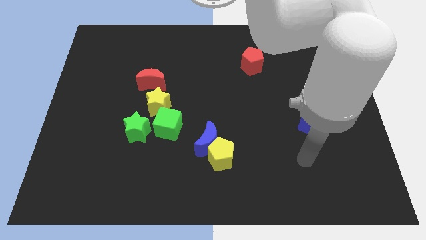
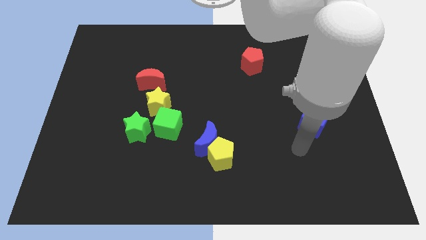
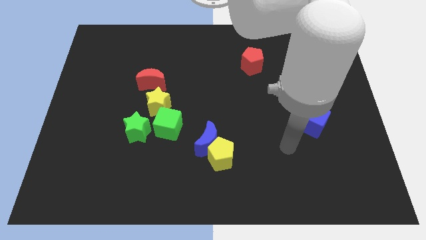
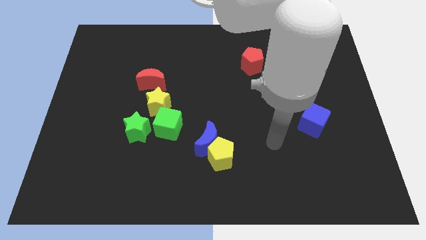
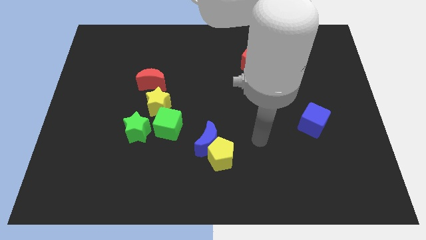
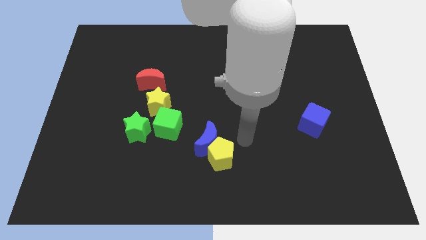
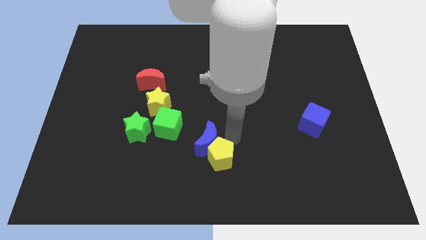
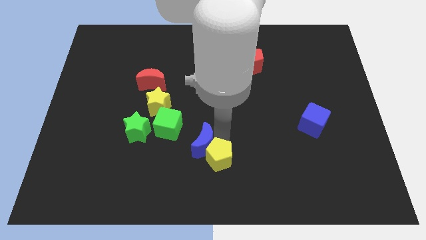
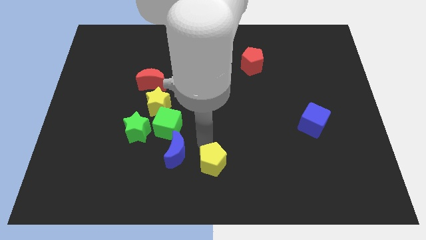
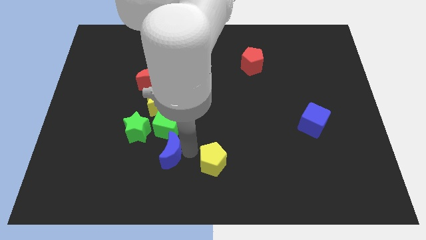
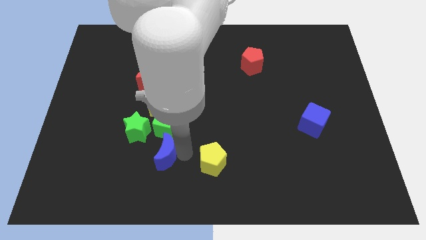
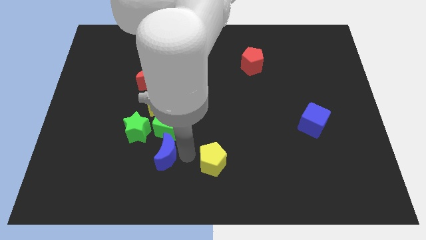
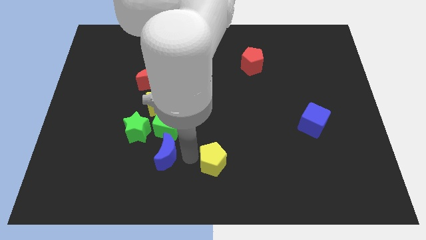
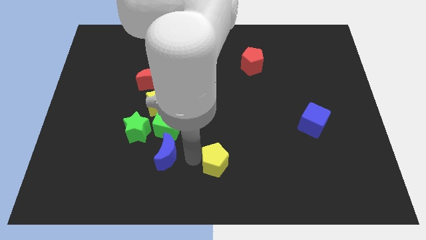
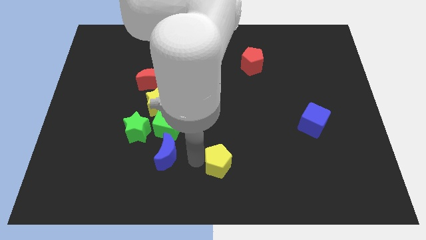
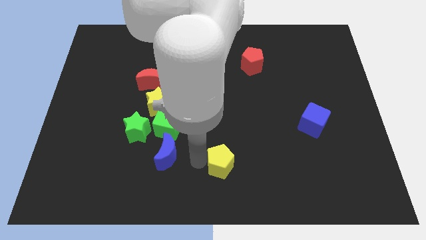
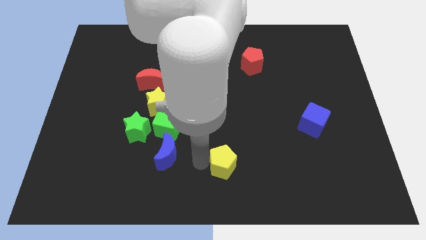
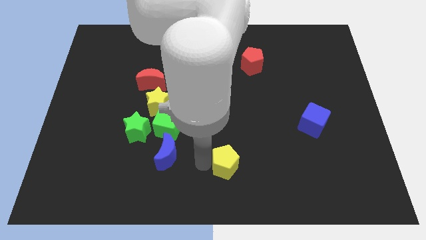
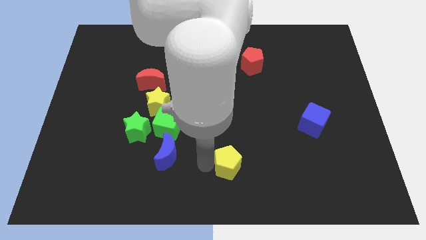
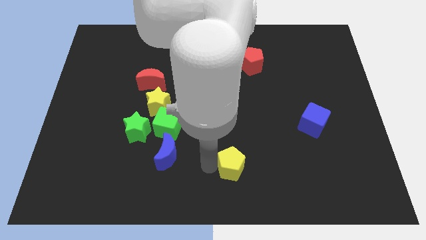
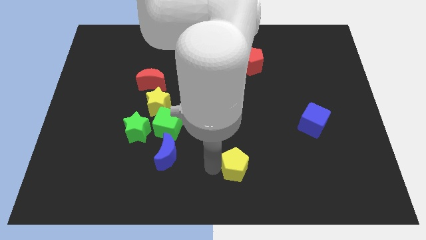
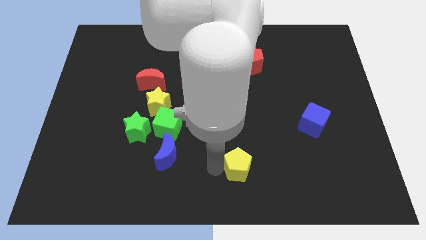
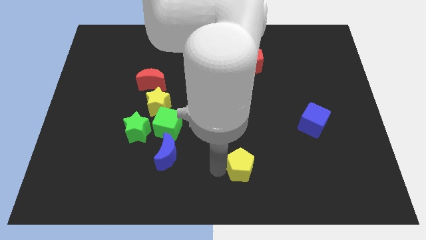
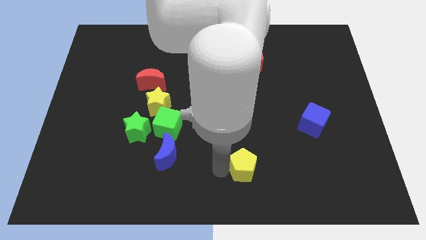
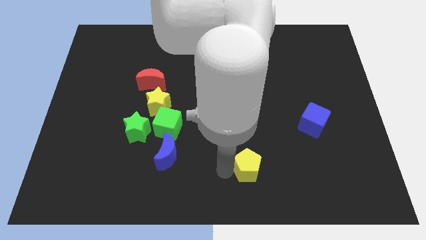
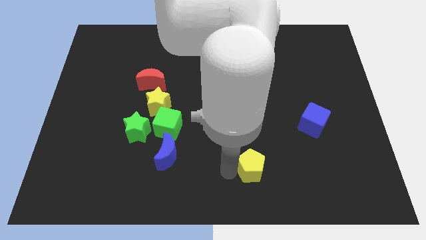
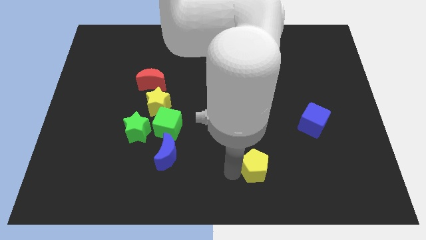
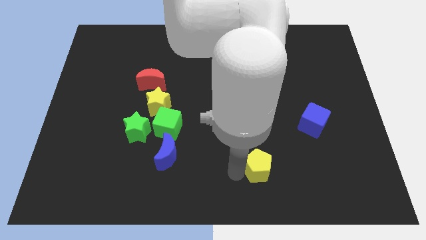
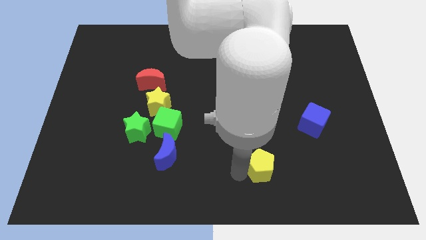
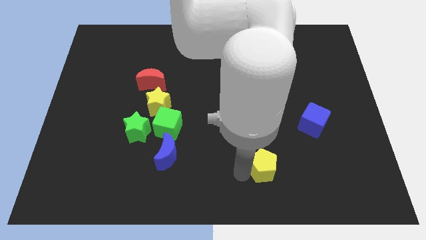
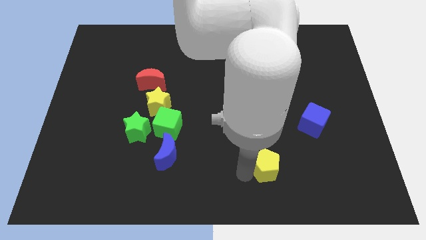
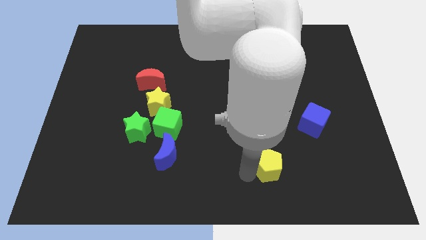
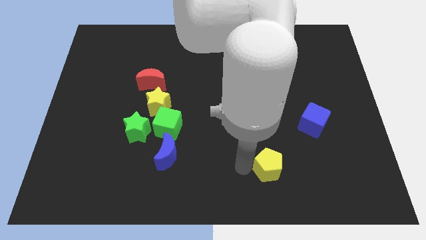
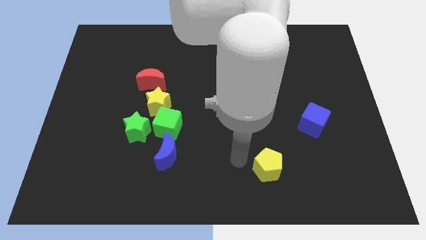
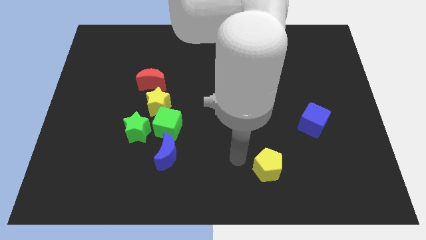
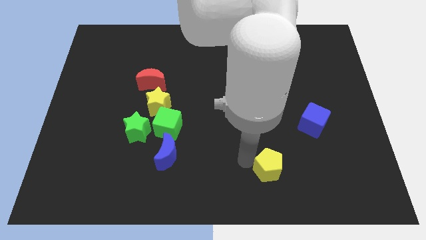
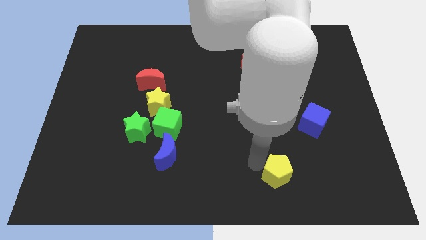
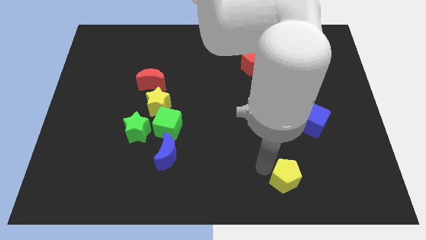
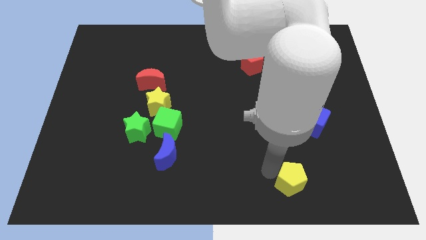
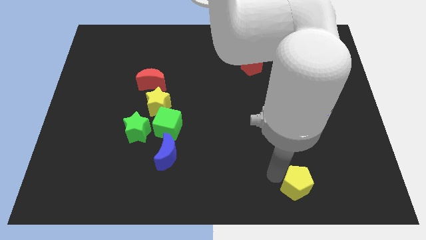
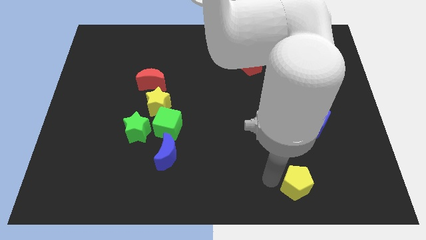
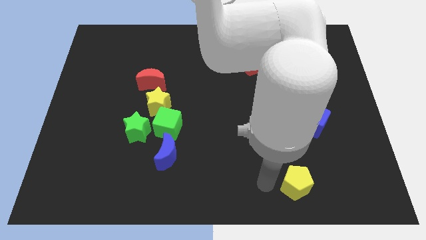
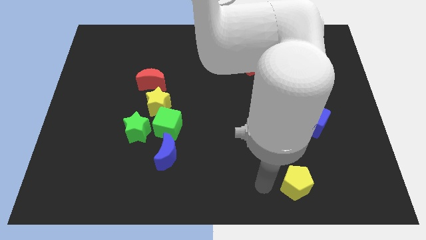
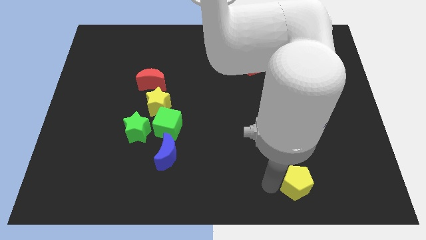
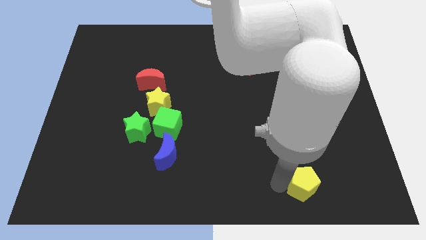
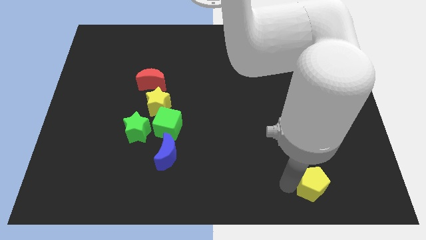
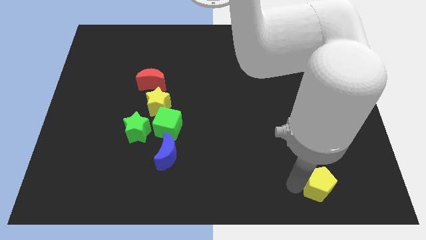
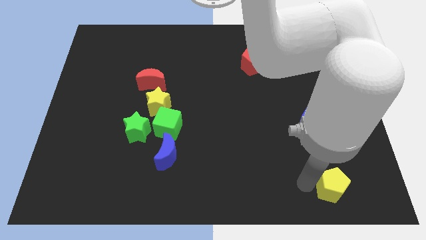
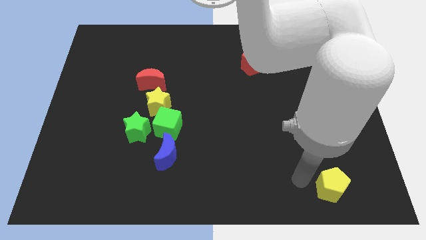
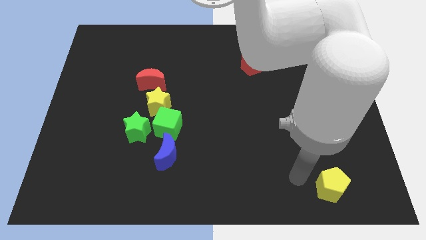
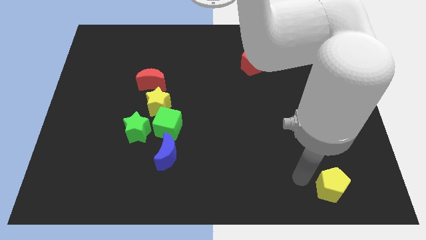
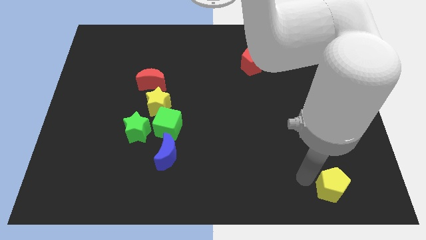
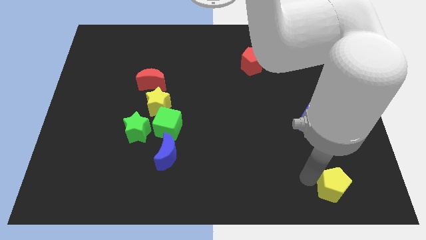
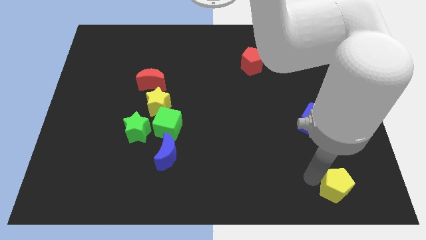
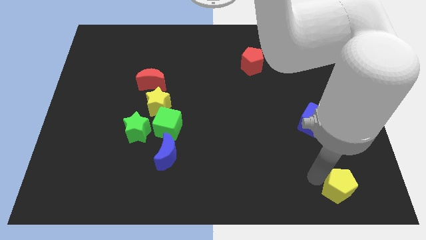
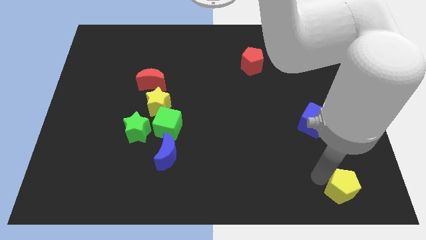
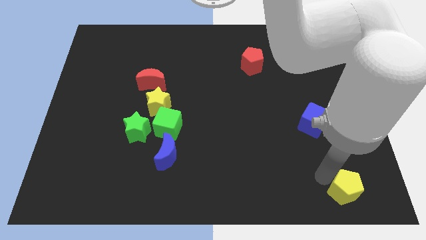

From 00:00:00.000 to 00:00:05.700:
move the yellow pentagon to the bottom right corner

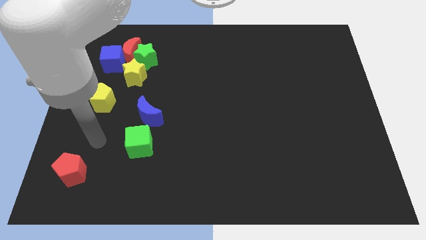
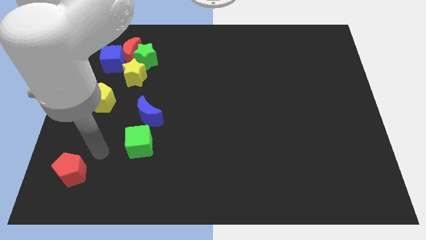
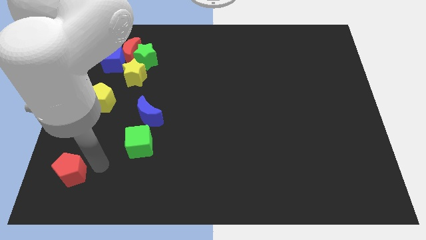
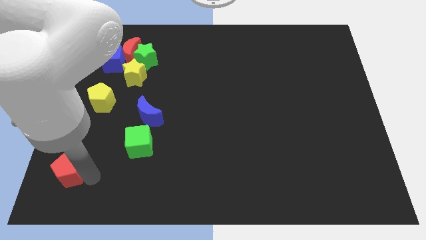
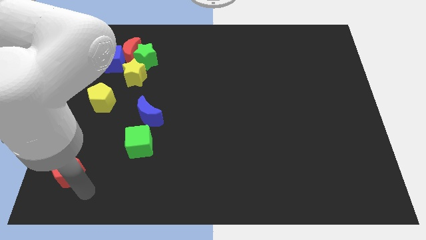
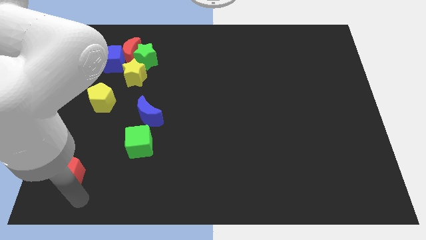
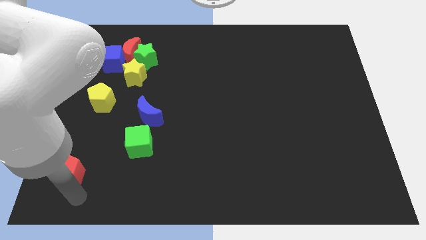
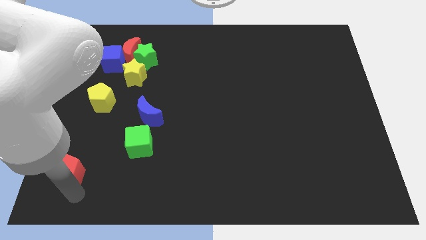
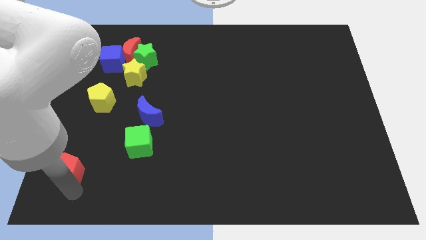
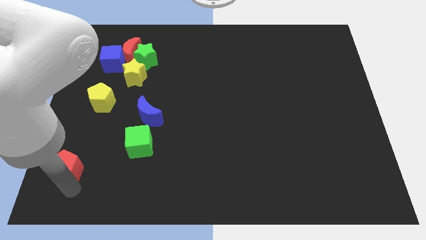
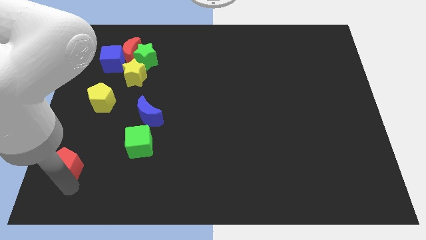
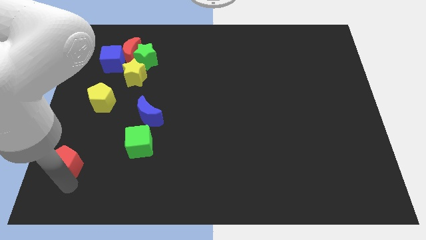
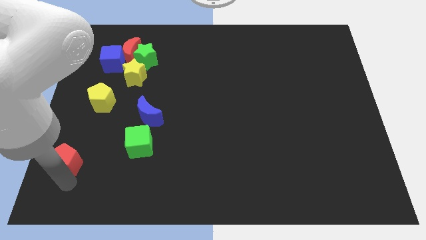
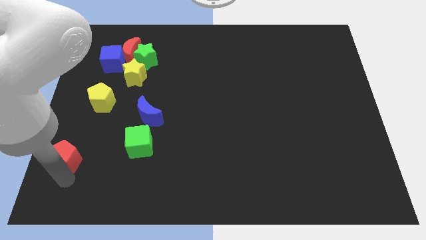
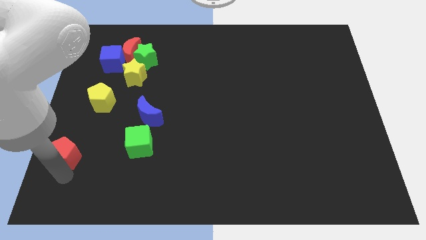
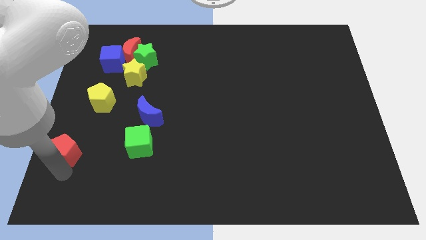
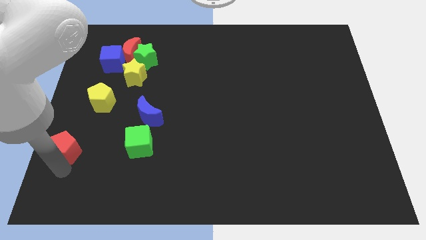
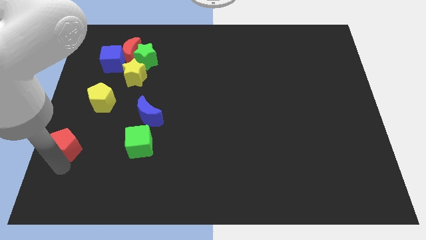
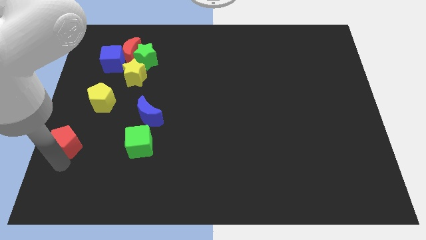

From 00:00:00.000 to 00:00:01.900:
put the red pentagon to the center left
